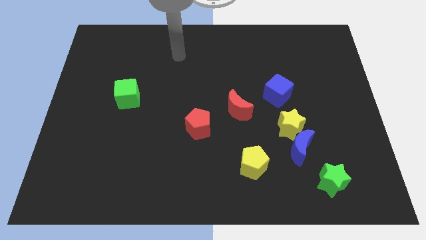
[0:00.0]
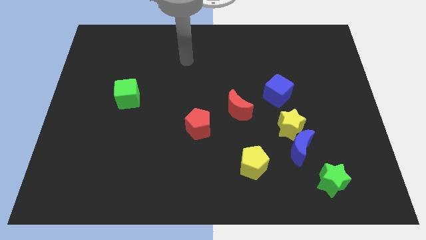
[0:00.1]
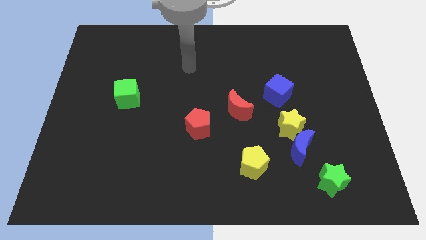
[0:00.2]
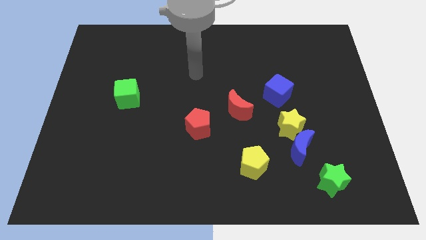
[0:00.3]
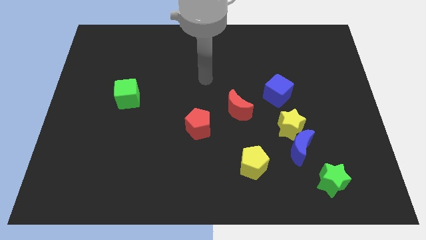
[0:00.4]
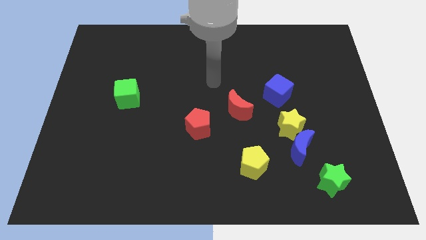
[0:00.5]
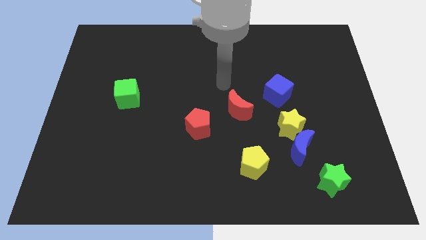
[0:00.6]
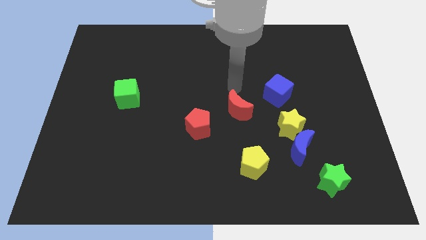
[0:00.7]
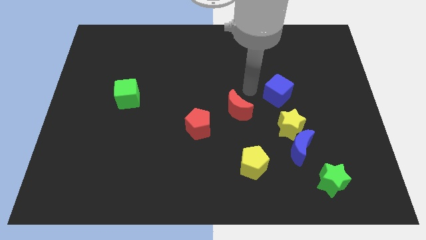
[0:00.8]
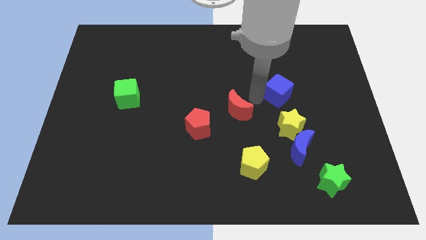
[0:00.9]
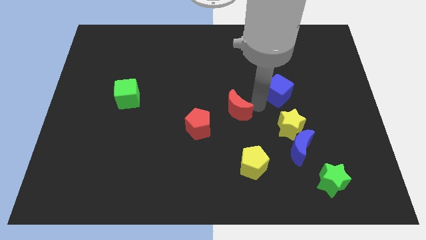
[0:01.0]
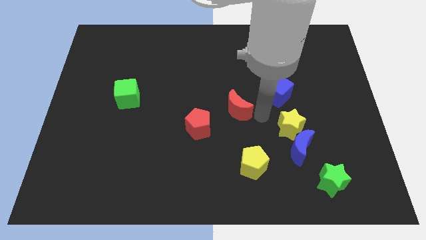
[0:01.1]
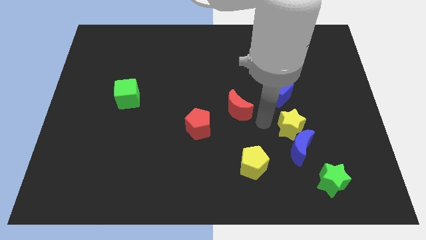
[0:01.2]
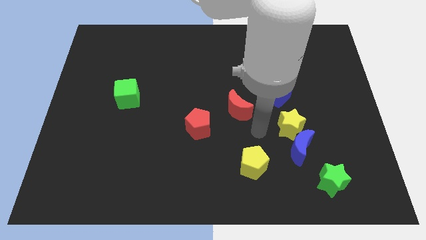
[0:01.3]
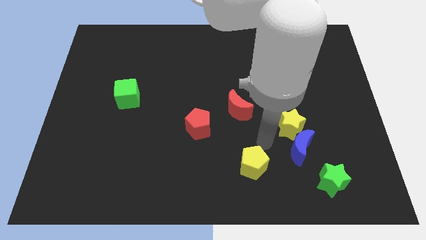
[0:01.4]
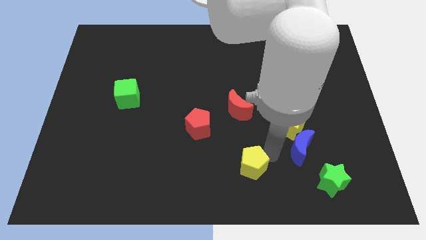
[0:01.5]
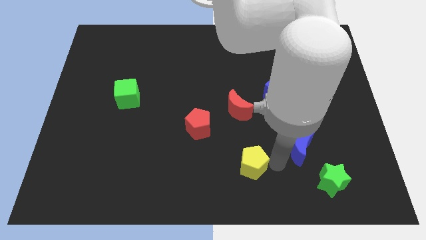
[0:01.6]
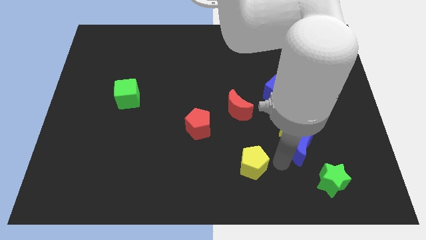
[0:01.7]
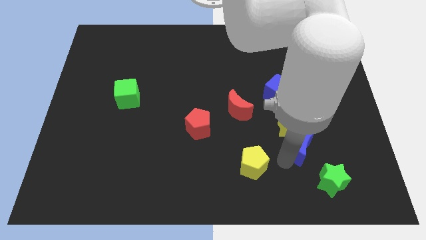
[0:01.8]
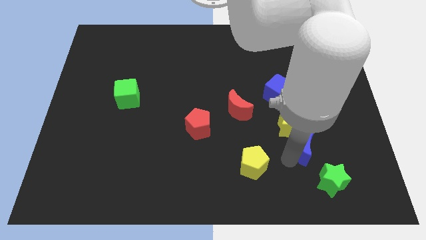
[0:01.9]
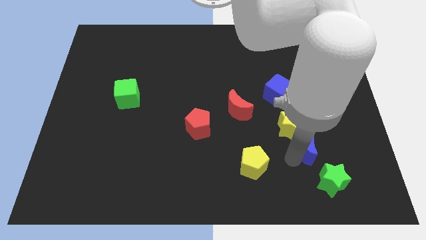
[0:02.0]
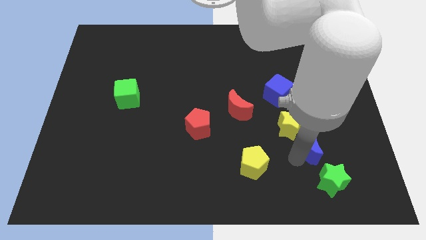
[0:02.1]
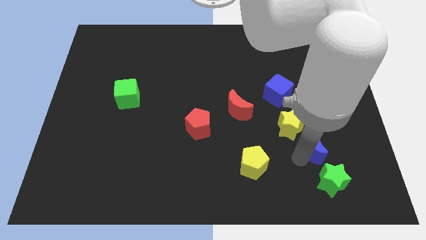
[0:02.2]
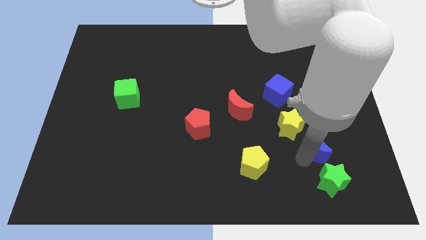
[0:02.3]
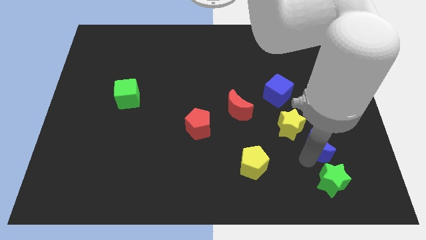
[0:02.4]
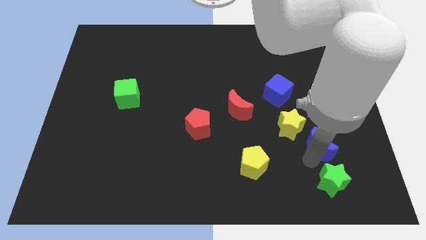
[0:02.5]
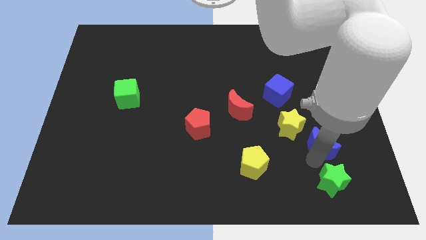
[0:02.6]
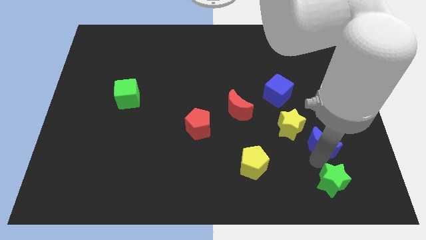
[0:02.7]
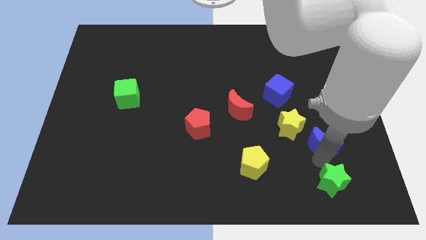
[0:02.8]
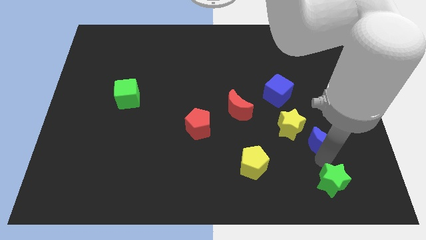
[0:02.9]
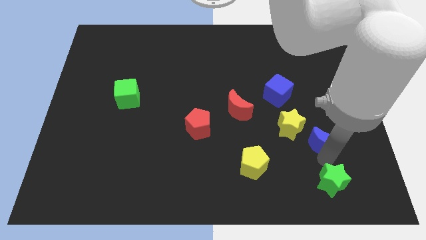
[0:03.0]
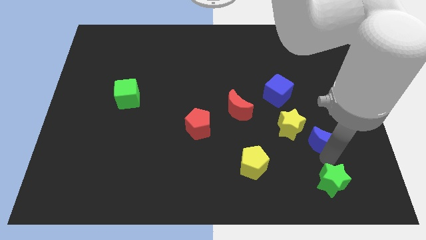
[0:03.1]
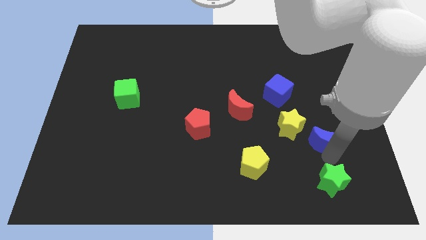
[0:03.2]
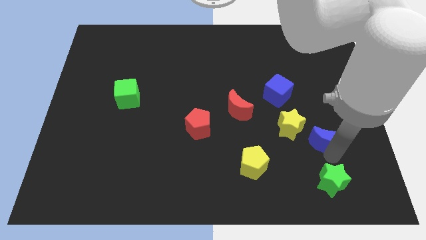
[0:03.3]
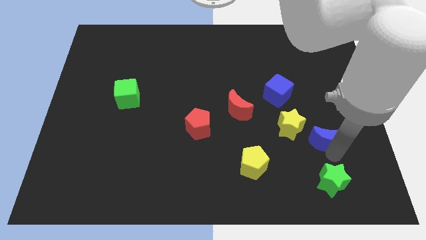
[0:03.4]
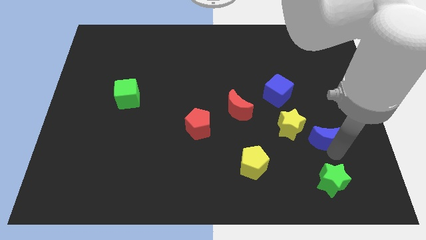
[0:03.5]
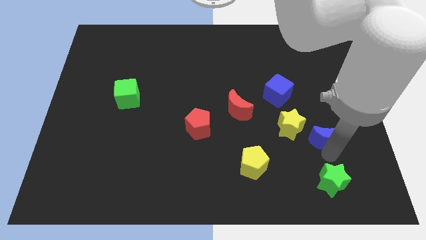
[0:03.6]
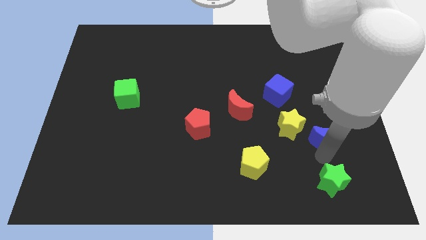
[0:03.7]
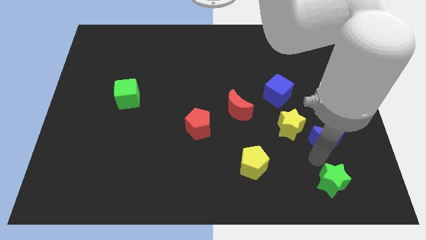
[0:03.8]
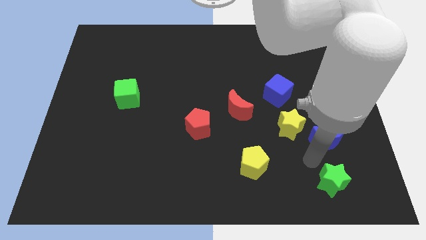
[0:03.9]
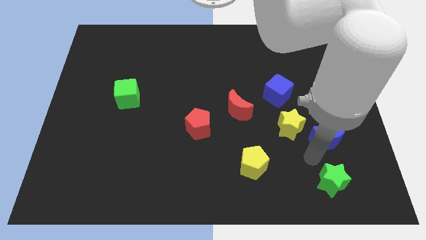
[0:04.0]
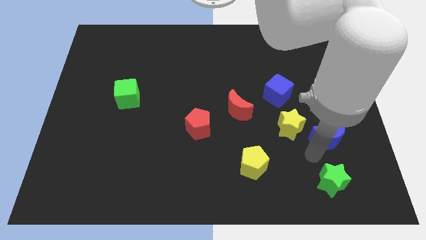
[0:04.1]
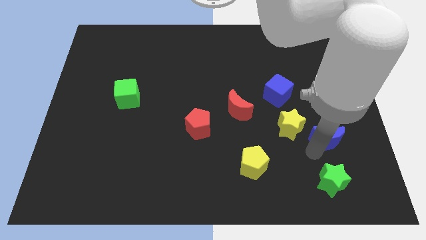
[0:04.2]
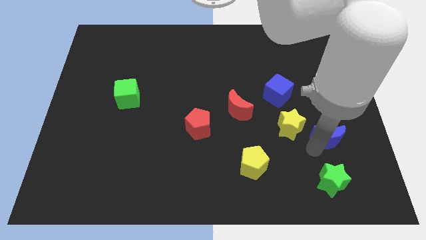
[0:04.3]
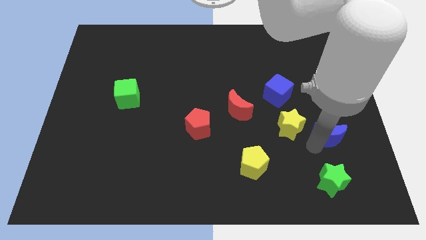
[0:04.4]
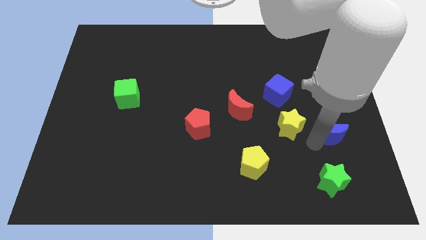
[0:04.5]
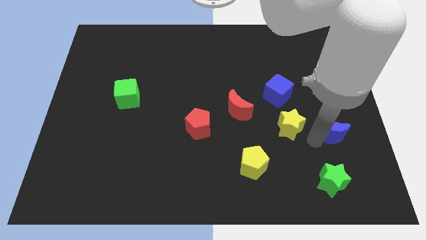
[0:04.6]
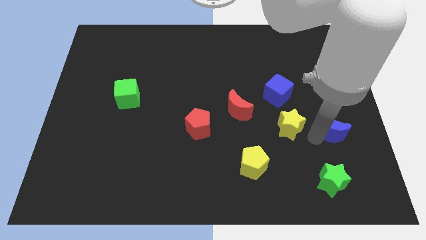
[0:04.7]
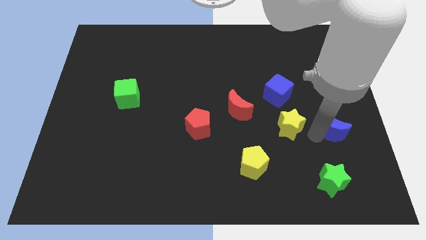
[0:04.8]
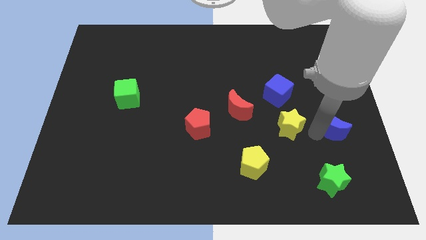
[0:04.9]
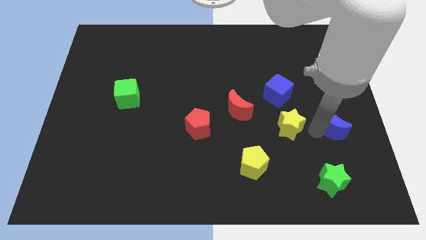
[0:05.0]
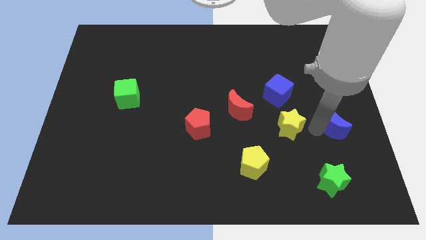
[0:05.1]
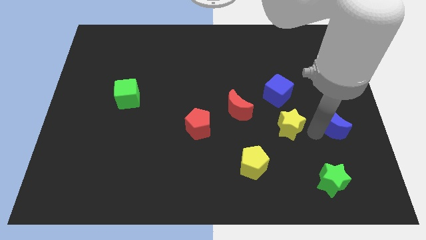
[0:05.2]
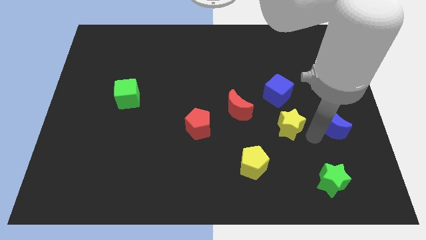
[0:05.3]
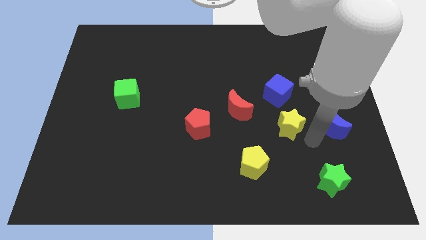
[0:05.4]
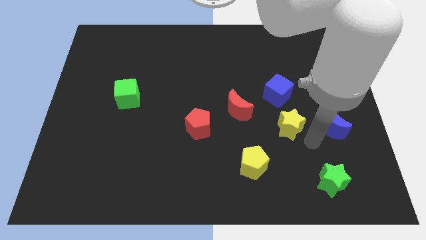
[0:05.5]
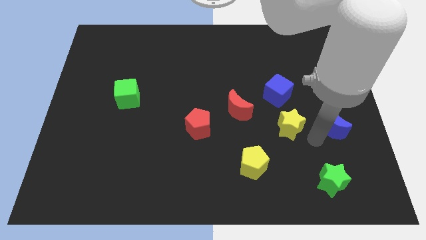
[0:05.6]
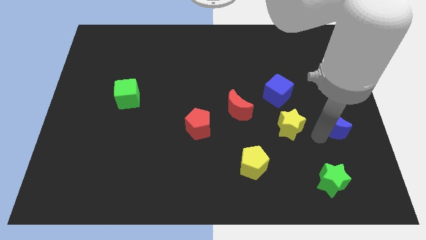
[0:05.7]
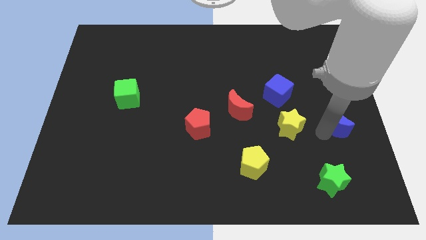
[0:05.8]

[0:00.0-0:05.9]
slide the blue moon to the center right

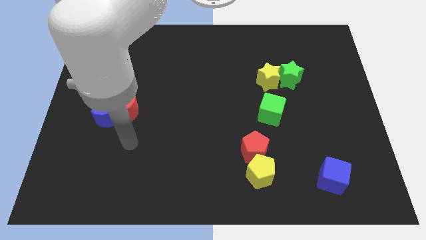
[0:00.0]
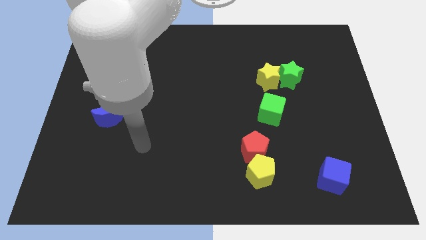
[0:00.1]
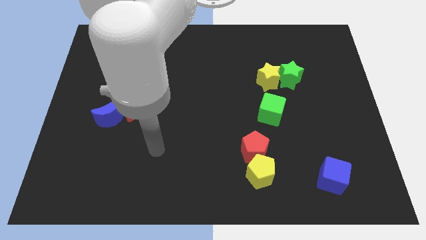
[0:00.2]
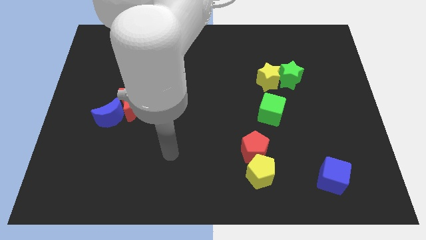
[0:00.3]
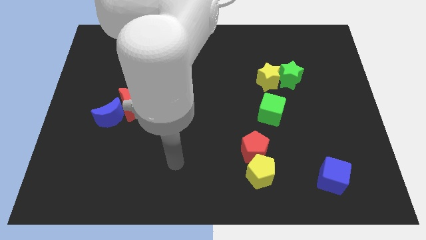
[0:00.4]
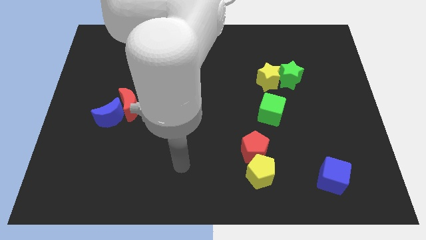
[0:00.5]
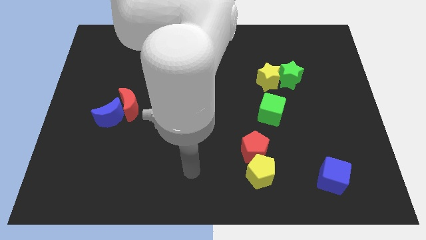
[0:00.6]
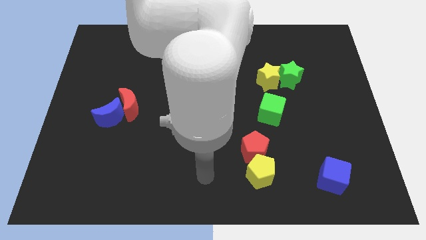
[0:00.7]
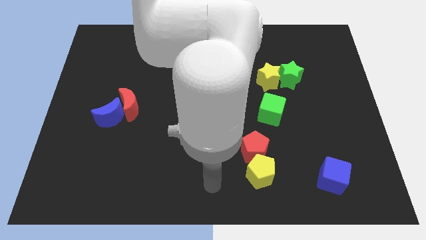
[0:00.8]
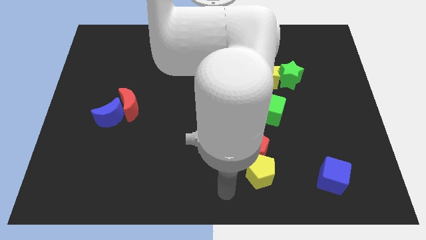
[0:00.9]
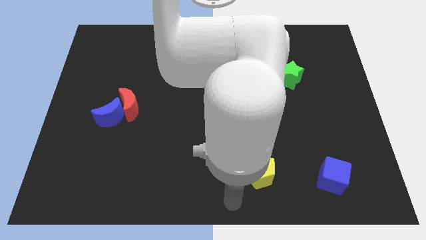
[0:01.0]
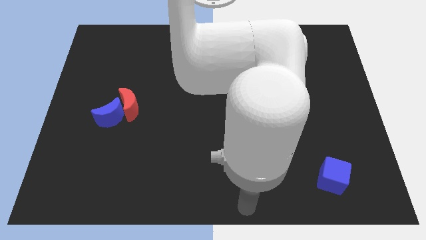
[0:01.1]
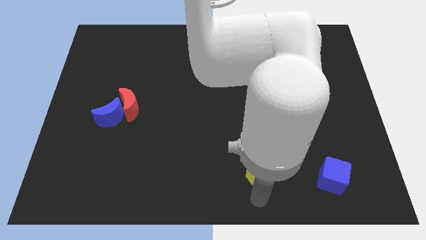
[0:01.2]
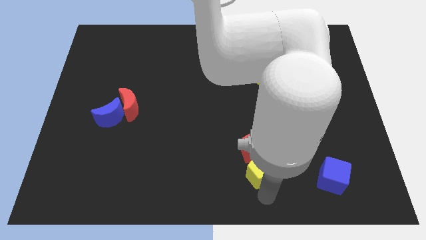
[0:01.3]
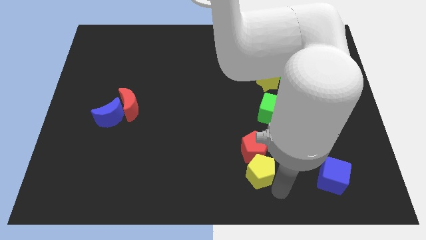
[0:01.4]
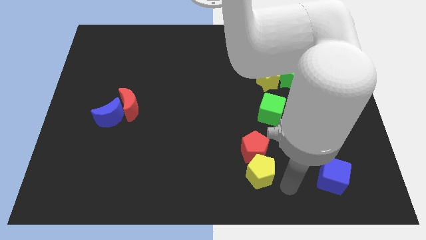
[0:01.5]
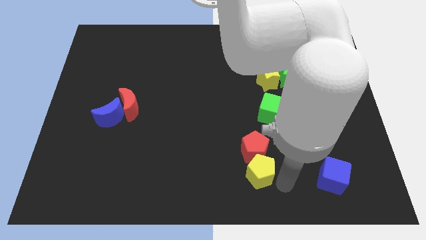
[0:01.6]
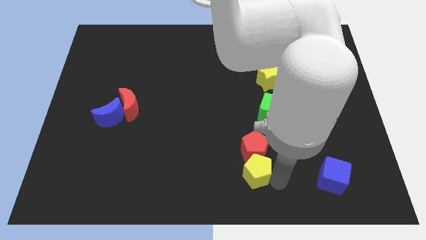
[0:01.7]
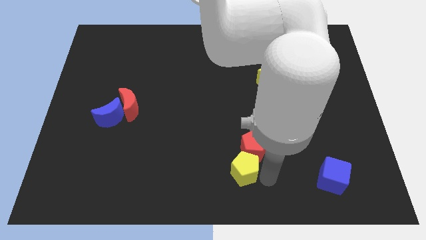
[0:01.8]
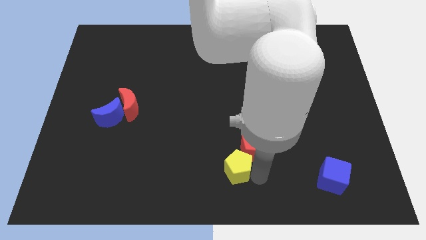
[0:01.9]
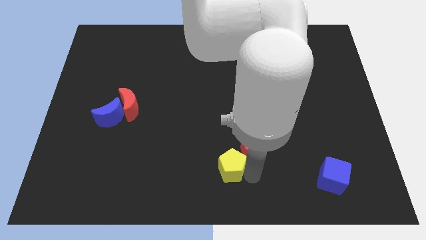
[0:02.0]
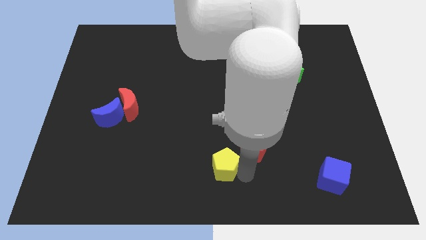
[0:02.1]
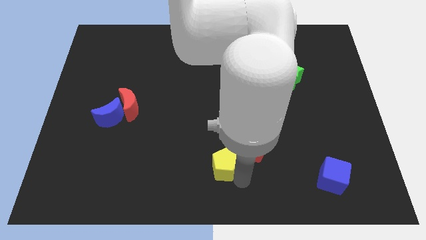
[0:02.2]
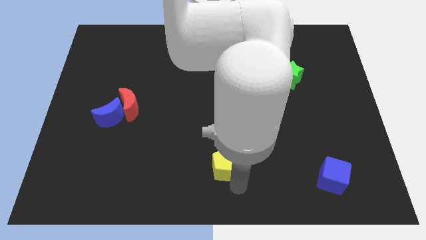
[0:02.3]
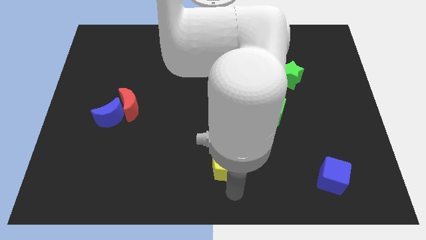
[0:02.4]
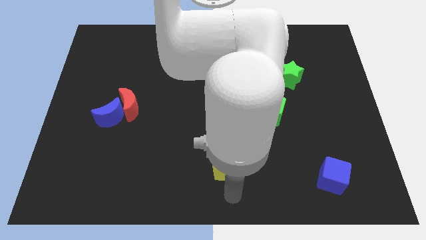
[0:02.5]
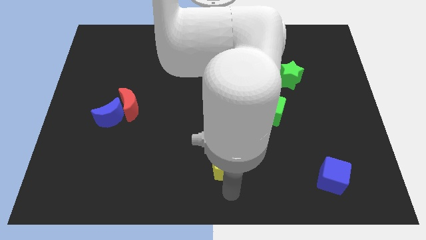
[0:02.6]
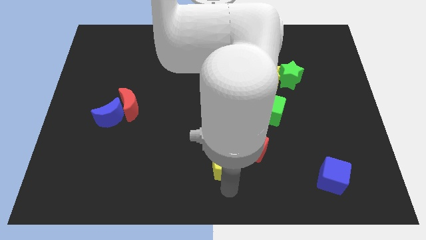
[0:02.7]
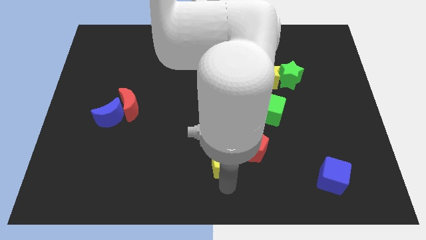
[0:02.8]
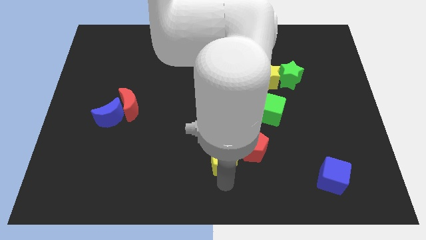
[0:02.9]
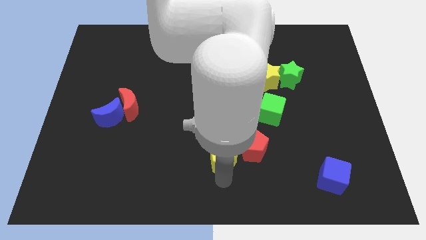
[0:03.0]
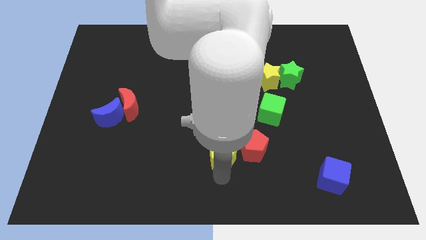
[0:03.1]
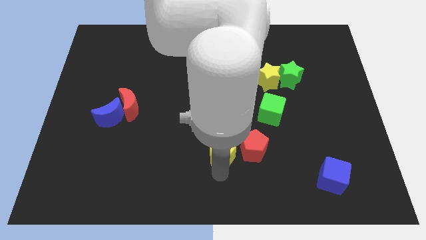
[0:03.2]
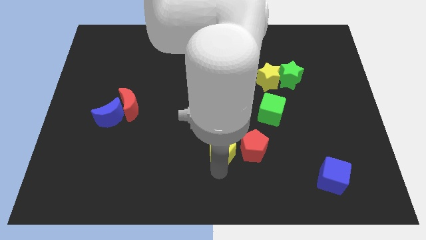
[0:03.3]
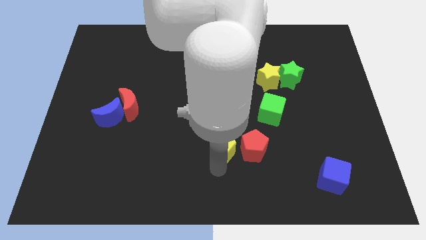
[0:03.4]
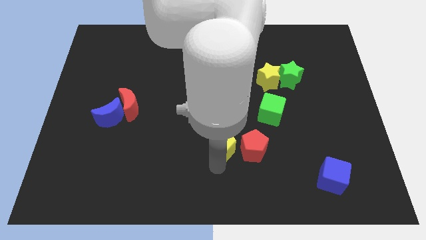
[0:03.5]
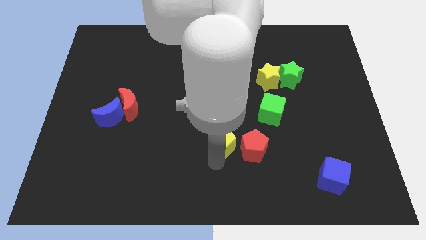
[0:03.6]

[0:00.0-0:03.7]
slide the yellow pentagon to the middle
